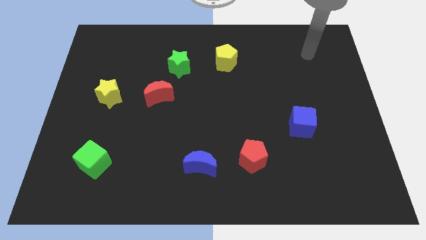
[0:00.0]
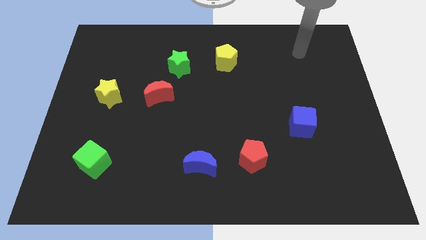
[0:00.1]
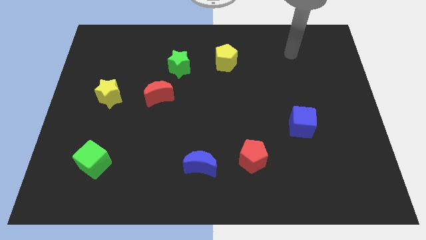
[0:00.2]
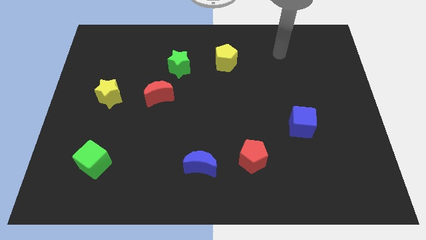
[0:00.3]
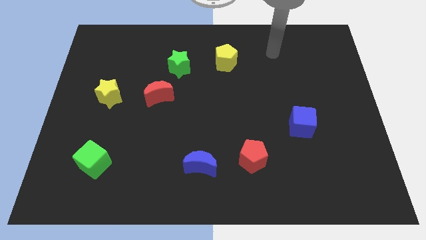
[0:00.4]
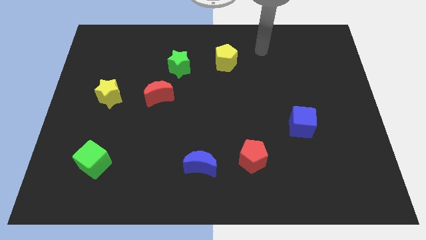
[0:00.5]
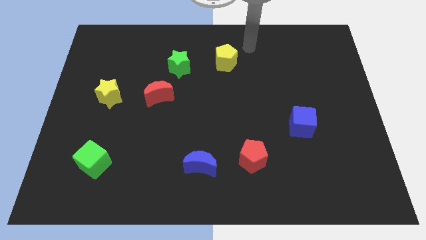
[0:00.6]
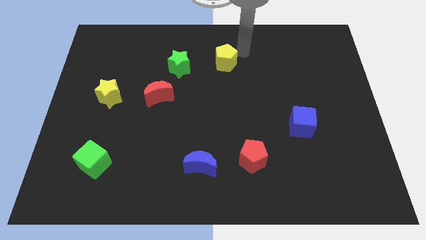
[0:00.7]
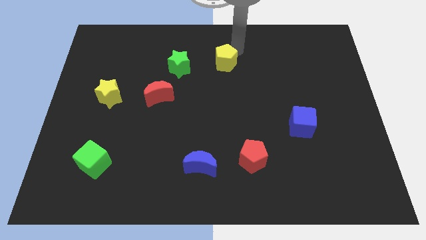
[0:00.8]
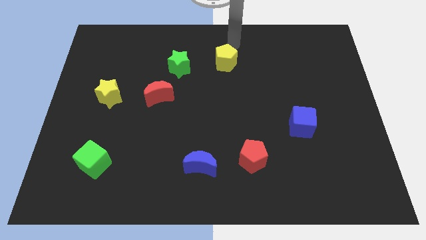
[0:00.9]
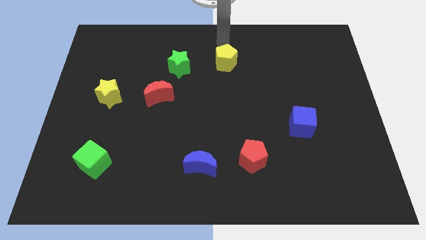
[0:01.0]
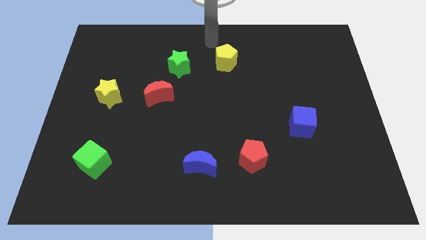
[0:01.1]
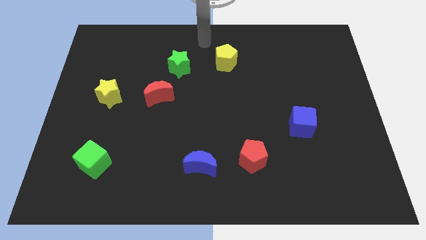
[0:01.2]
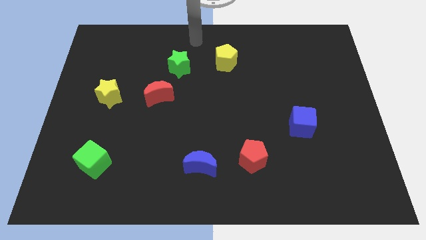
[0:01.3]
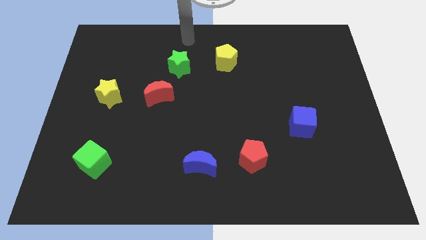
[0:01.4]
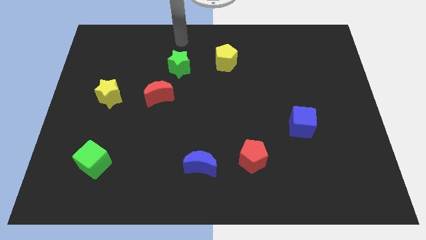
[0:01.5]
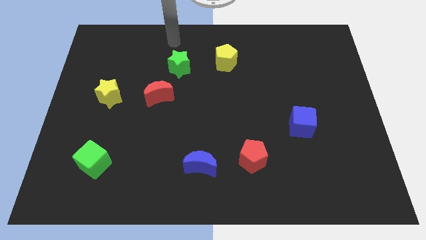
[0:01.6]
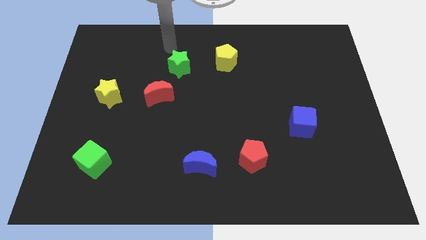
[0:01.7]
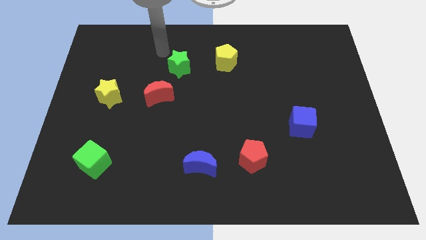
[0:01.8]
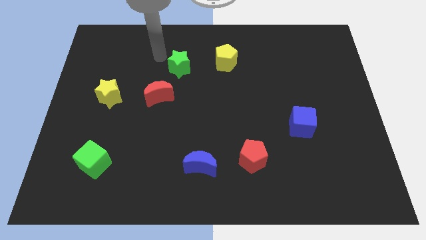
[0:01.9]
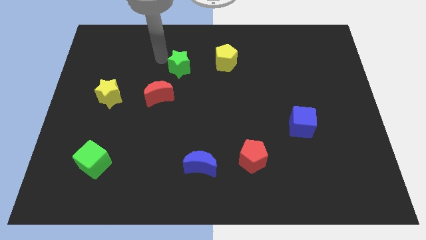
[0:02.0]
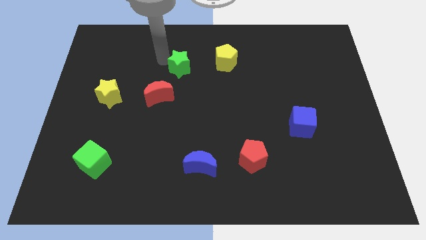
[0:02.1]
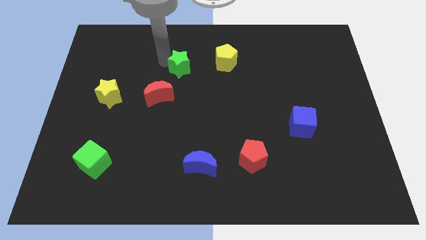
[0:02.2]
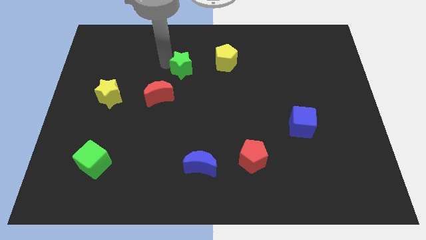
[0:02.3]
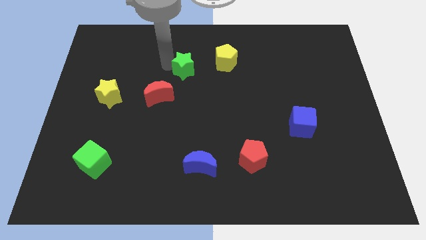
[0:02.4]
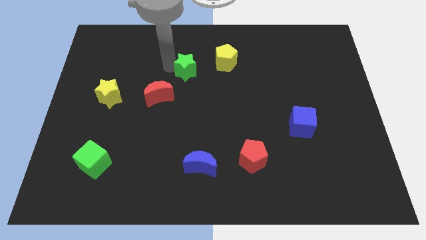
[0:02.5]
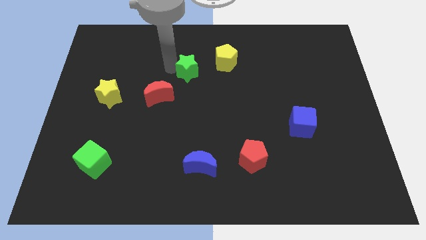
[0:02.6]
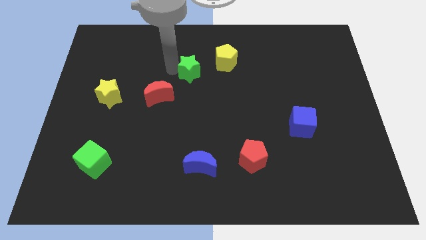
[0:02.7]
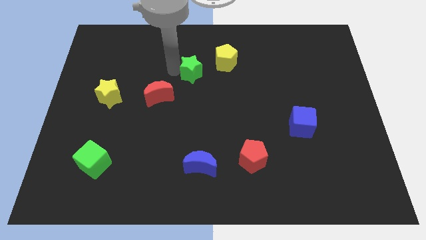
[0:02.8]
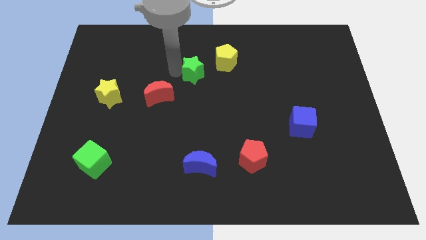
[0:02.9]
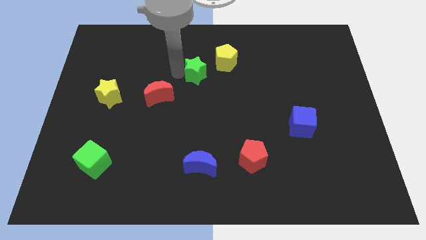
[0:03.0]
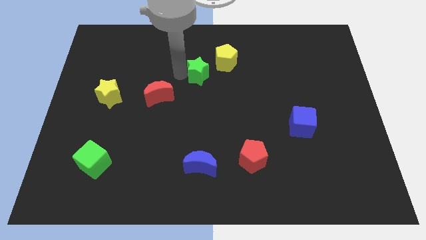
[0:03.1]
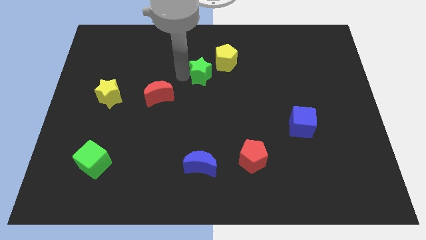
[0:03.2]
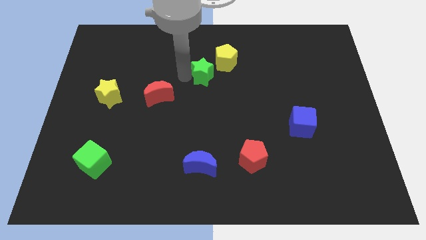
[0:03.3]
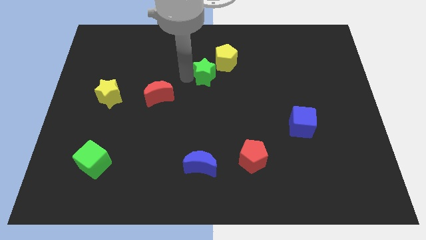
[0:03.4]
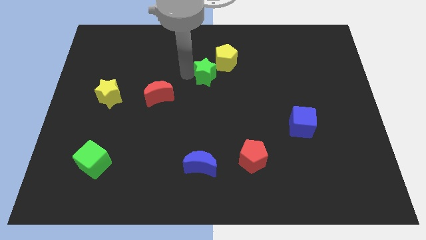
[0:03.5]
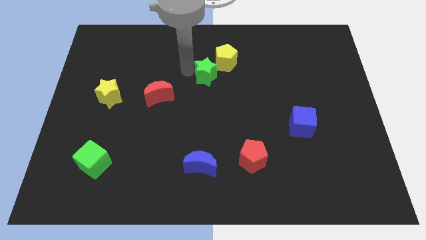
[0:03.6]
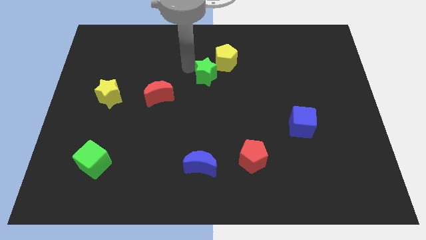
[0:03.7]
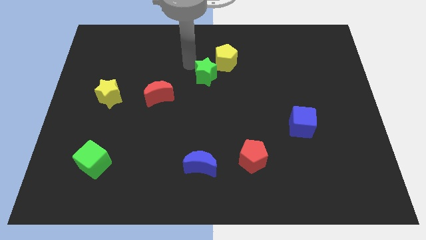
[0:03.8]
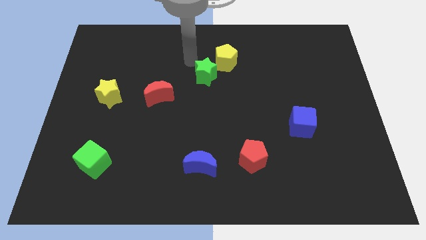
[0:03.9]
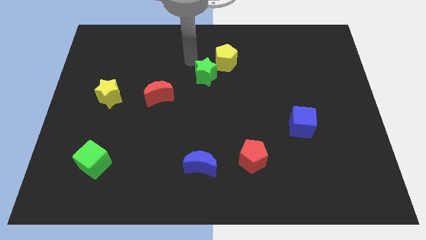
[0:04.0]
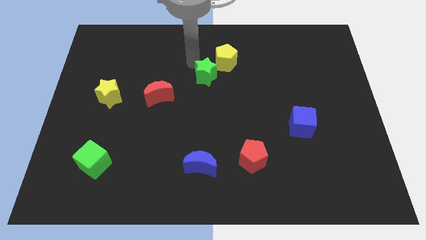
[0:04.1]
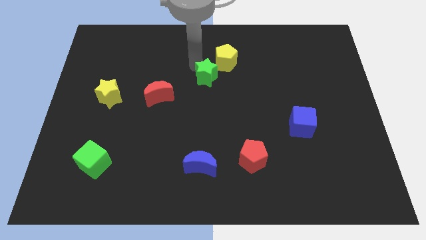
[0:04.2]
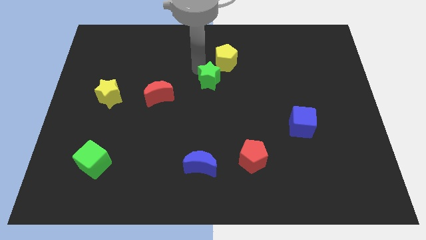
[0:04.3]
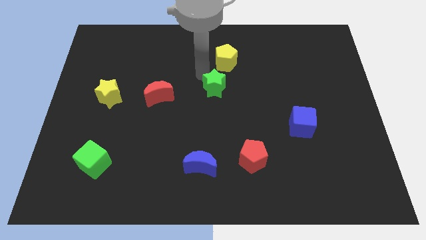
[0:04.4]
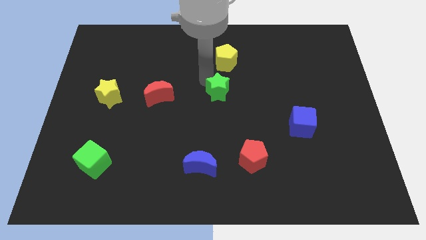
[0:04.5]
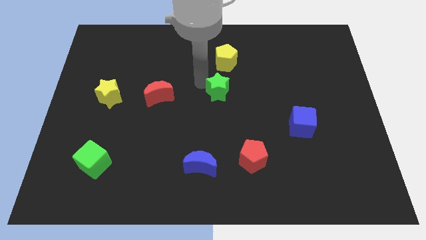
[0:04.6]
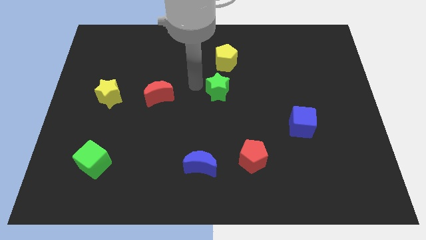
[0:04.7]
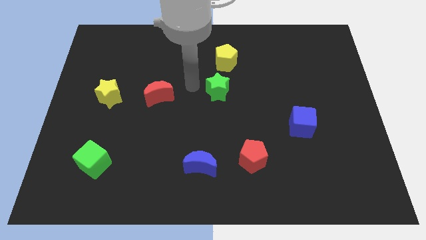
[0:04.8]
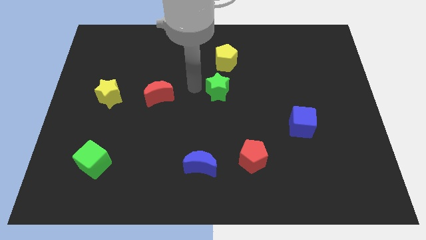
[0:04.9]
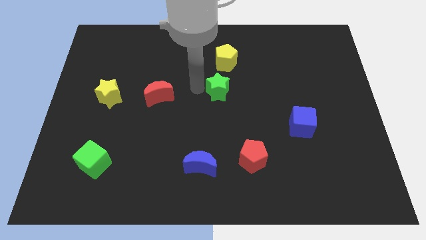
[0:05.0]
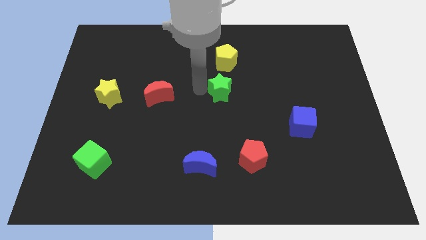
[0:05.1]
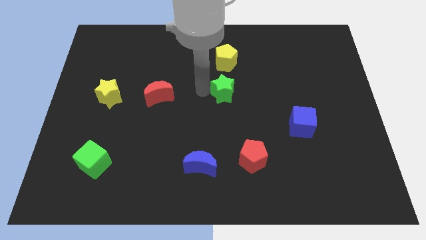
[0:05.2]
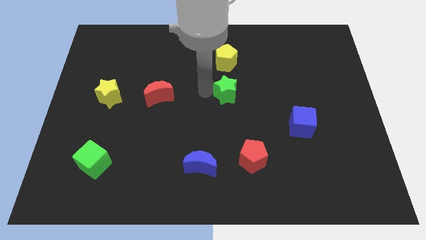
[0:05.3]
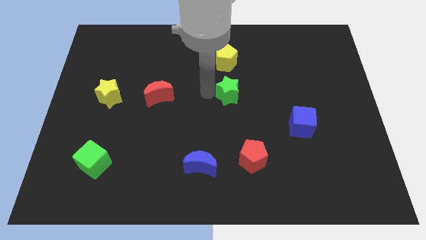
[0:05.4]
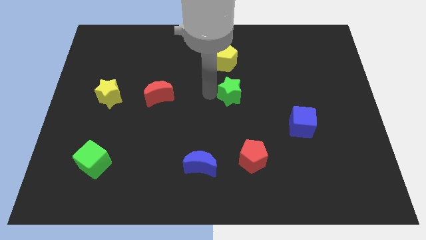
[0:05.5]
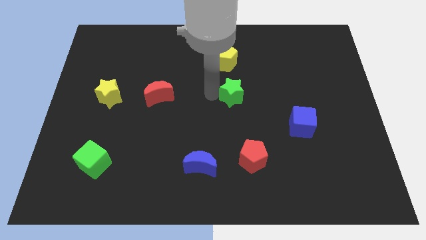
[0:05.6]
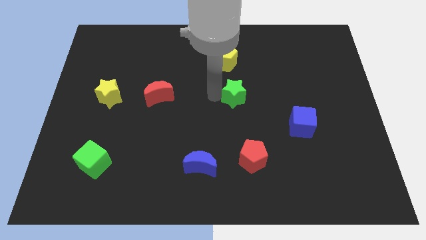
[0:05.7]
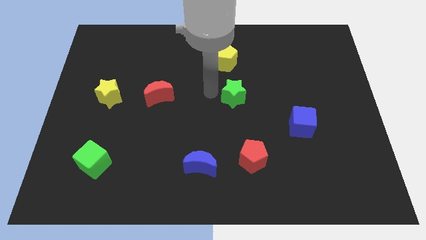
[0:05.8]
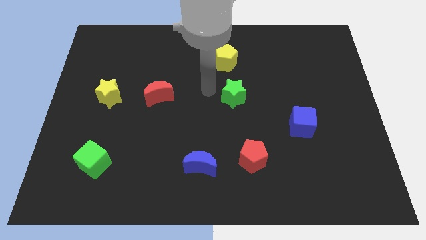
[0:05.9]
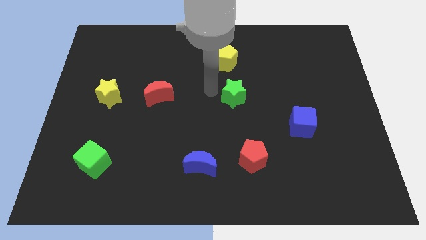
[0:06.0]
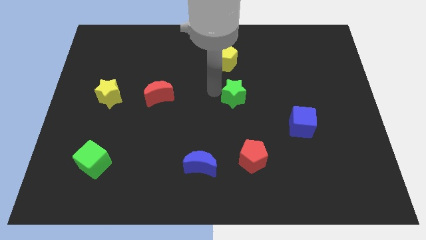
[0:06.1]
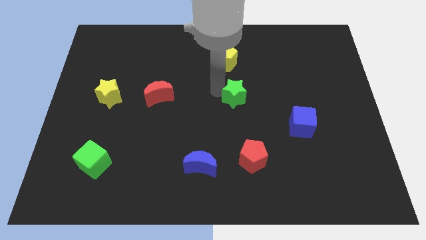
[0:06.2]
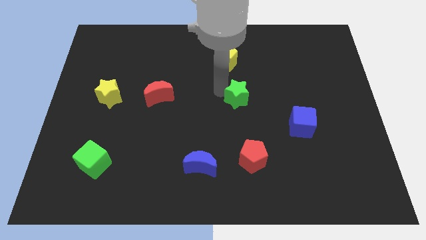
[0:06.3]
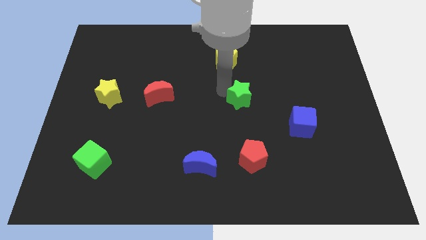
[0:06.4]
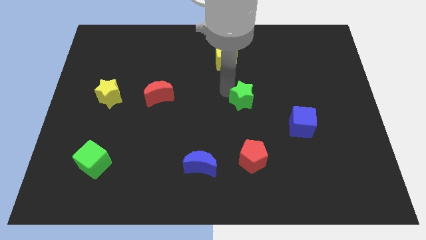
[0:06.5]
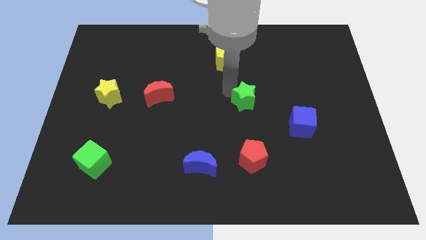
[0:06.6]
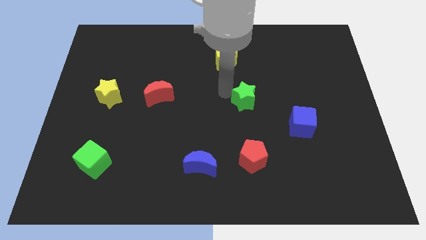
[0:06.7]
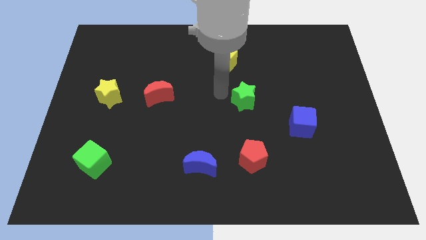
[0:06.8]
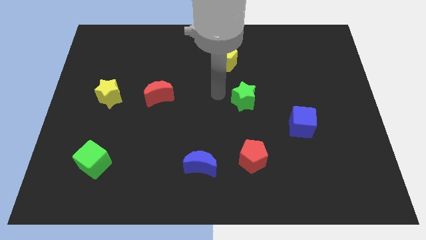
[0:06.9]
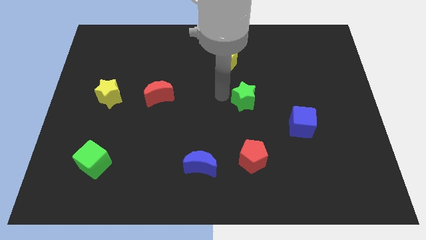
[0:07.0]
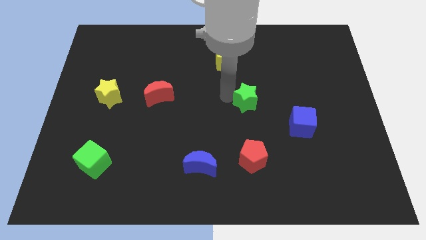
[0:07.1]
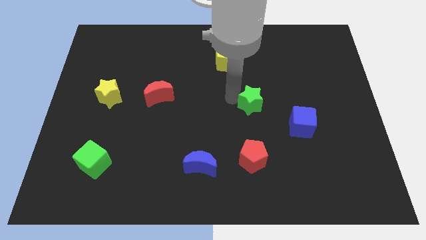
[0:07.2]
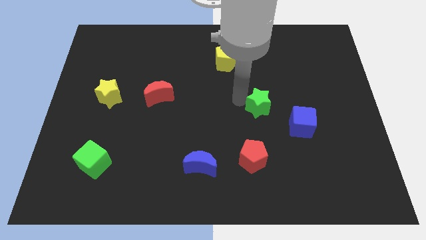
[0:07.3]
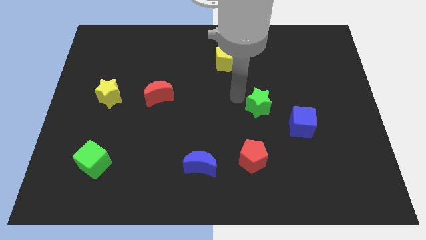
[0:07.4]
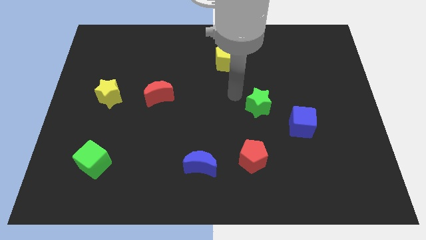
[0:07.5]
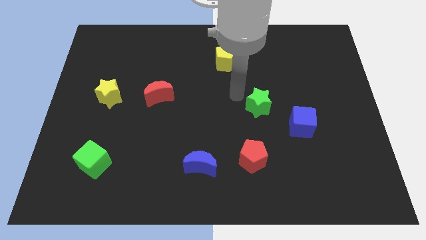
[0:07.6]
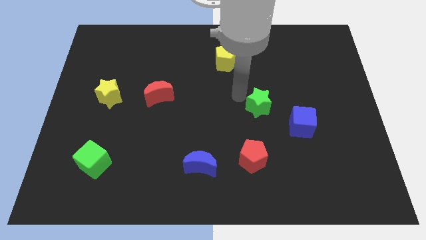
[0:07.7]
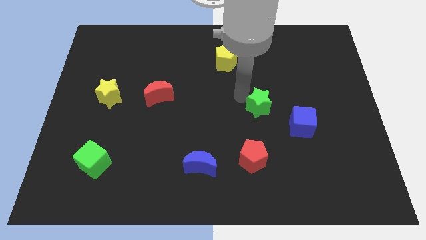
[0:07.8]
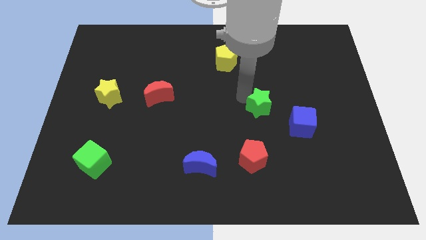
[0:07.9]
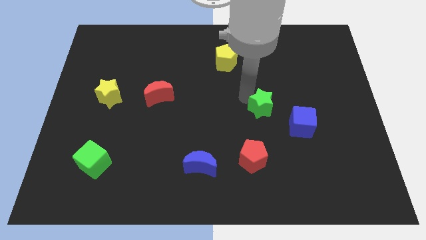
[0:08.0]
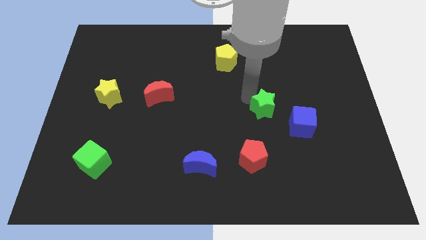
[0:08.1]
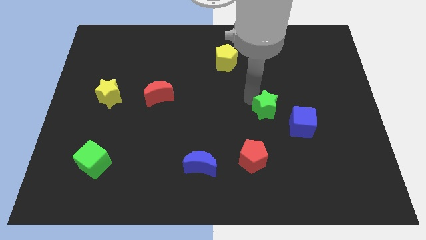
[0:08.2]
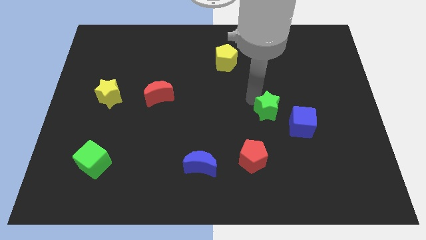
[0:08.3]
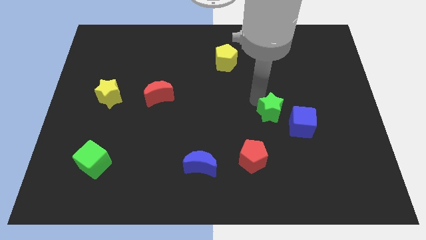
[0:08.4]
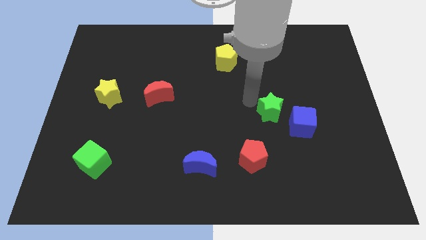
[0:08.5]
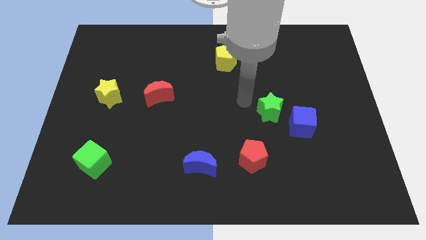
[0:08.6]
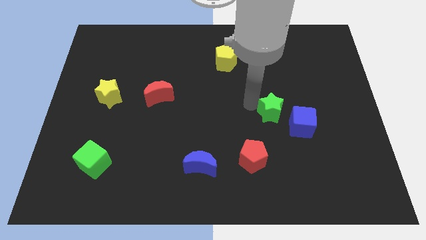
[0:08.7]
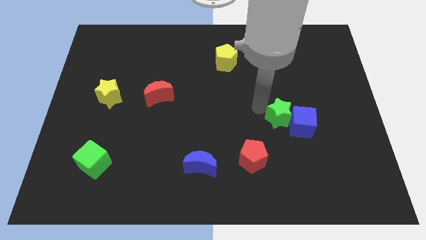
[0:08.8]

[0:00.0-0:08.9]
put the green star towards the blue cube
